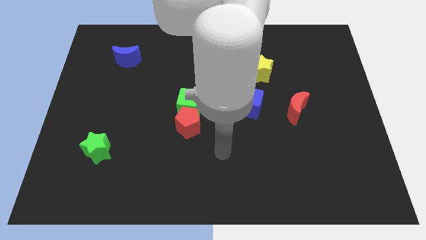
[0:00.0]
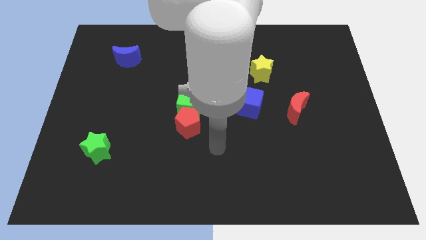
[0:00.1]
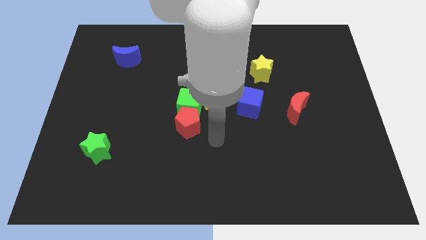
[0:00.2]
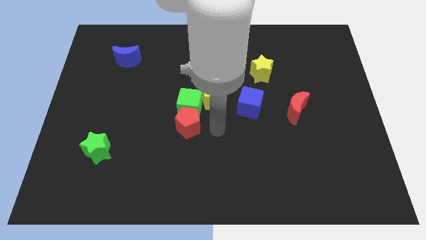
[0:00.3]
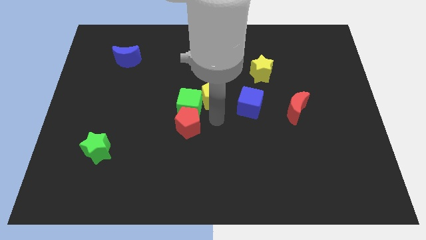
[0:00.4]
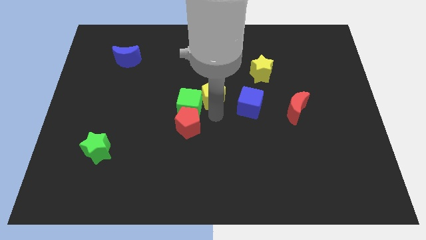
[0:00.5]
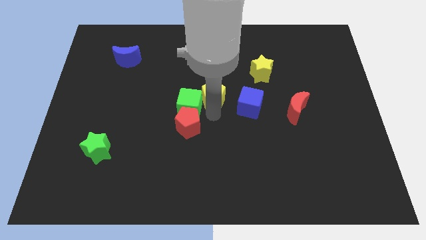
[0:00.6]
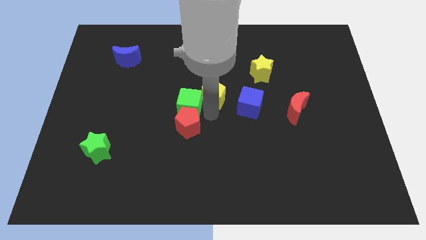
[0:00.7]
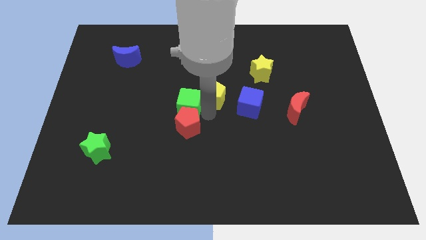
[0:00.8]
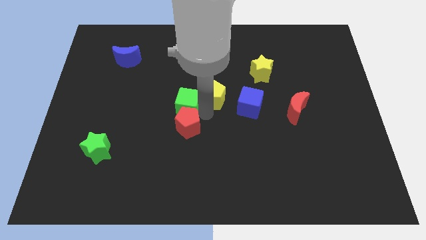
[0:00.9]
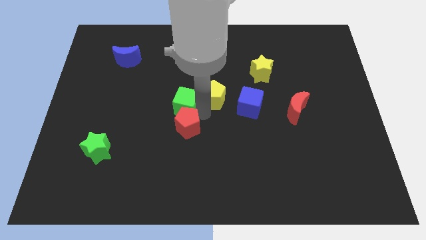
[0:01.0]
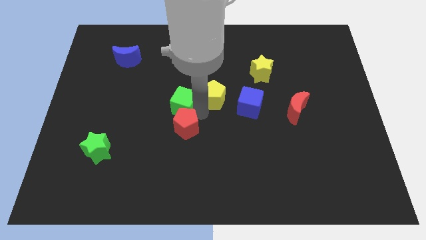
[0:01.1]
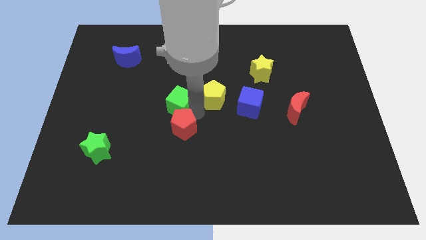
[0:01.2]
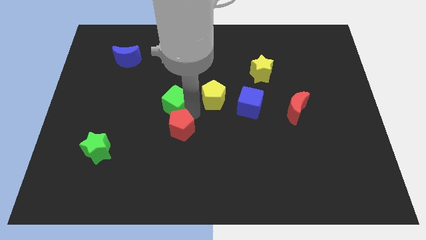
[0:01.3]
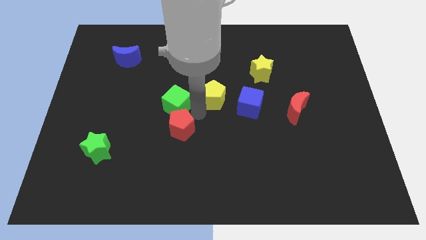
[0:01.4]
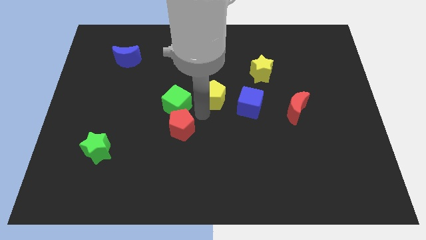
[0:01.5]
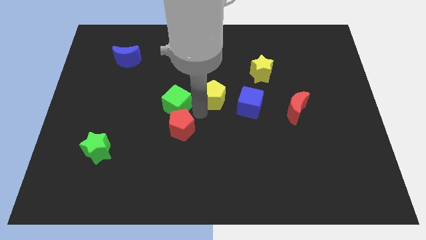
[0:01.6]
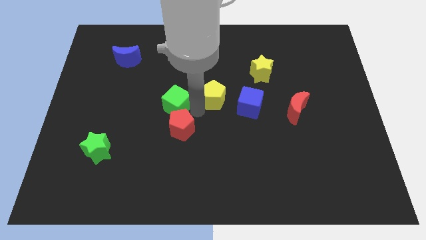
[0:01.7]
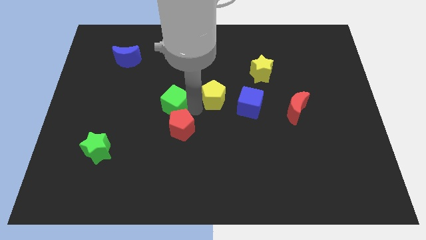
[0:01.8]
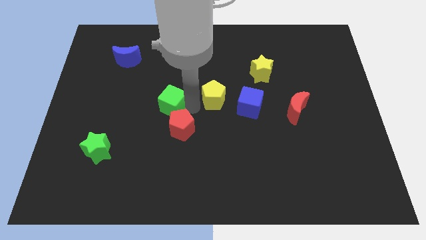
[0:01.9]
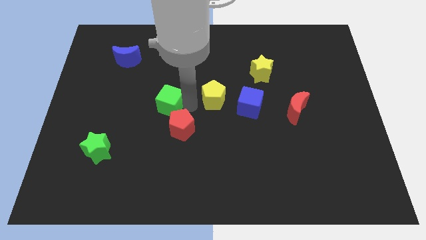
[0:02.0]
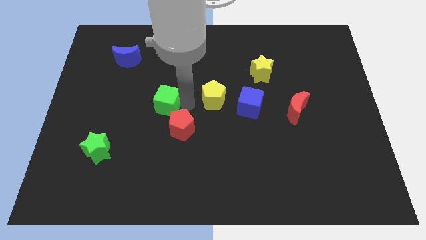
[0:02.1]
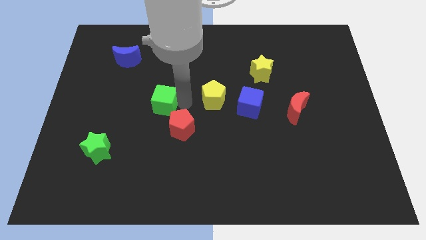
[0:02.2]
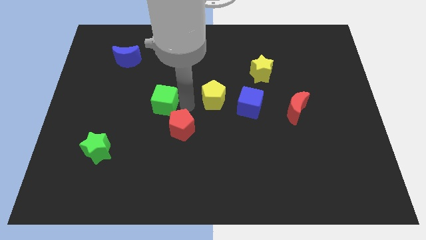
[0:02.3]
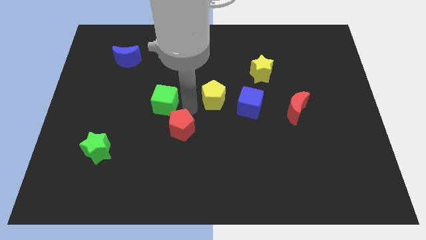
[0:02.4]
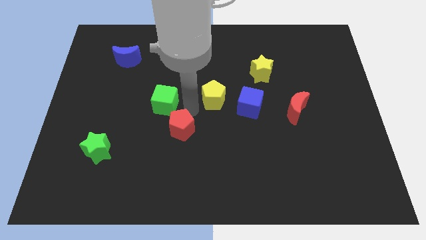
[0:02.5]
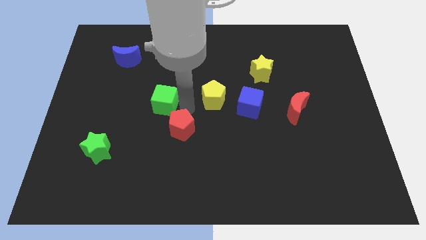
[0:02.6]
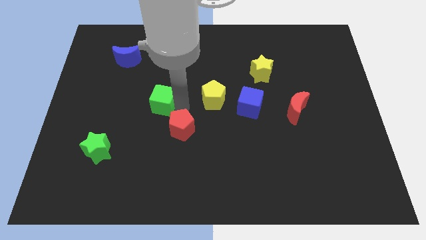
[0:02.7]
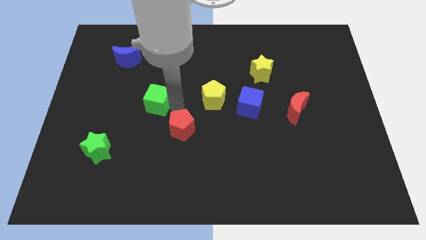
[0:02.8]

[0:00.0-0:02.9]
pull the green cube apart from the red pentagon and yellow pentagon

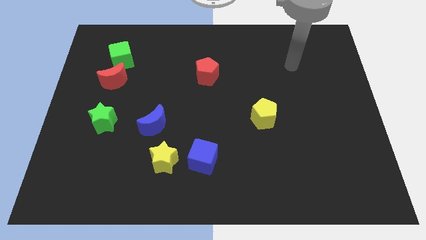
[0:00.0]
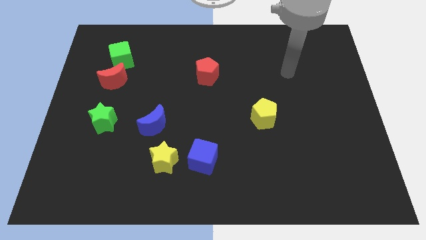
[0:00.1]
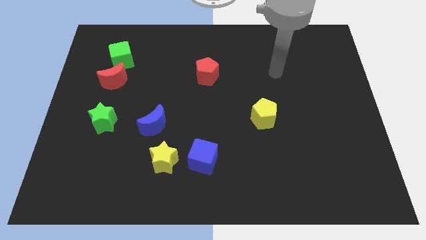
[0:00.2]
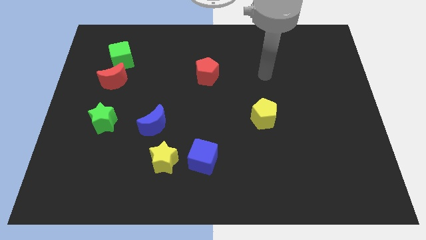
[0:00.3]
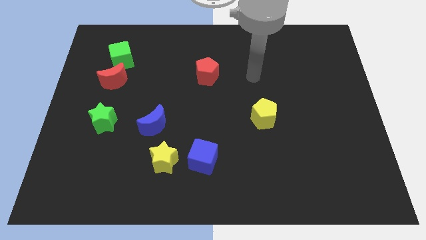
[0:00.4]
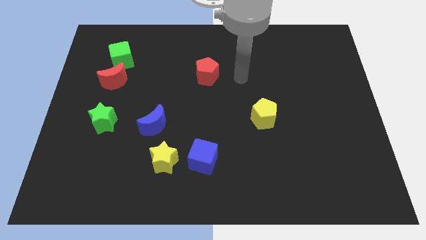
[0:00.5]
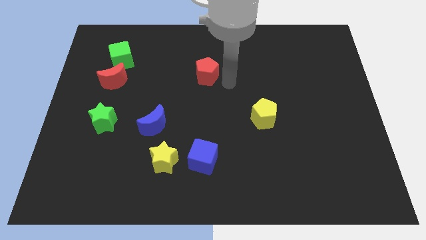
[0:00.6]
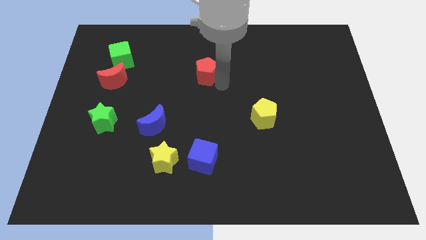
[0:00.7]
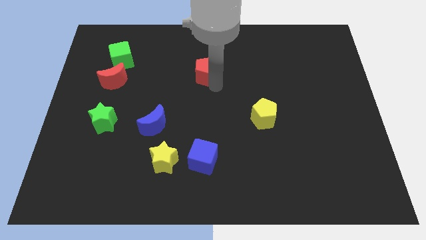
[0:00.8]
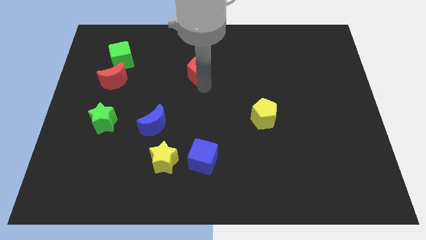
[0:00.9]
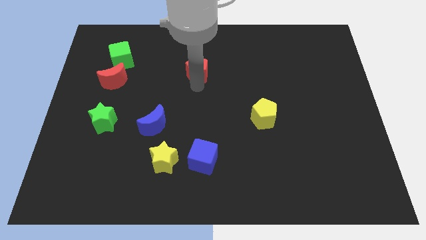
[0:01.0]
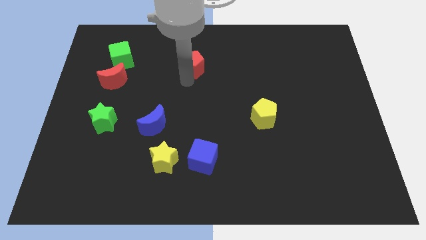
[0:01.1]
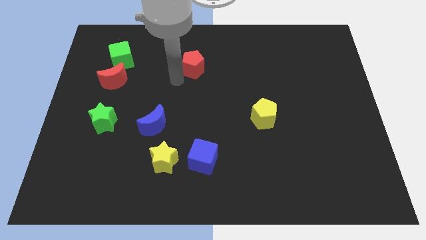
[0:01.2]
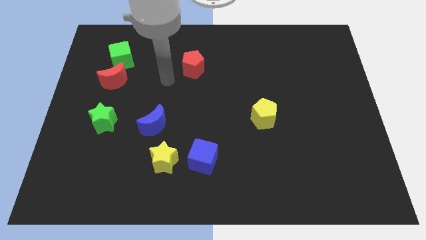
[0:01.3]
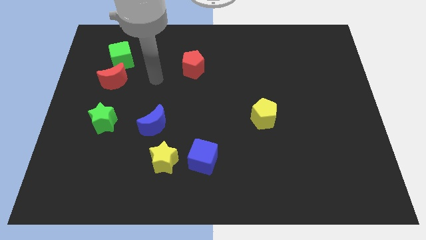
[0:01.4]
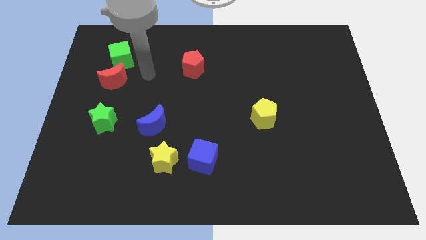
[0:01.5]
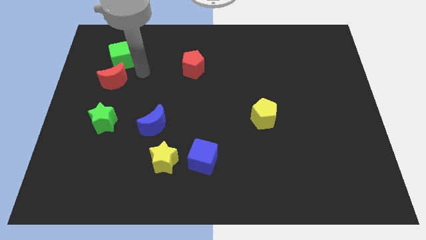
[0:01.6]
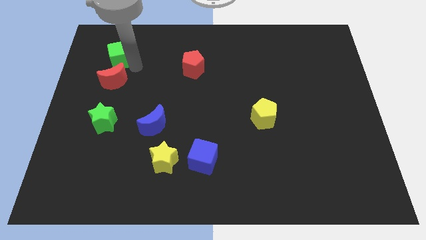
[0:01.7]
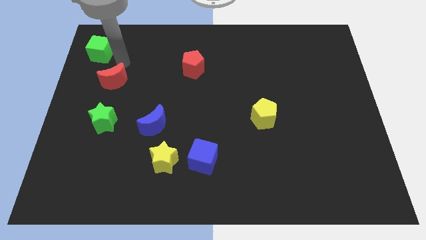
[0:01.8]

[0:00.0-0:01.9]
move the red moon away from the green cube

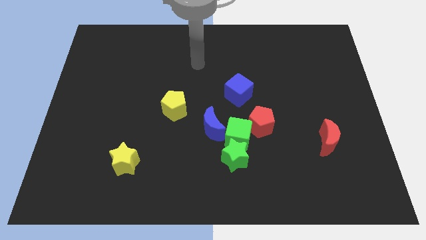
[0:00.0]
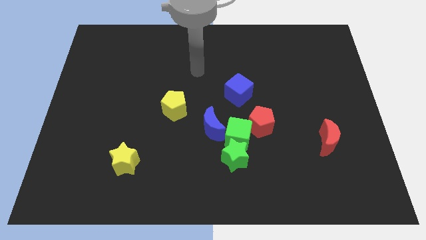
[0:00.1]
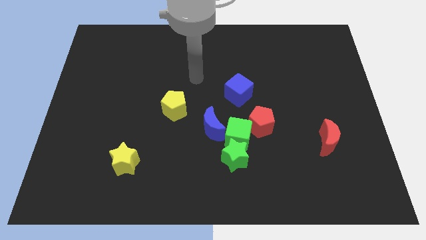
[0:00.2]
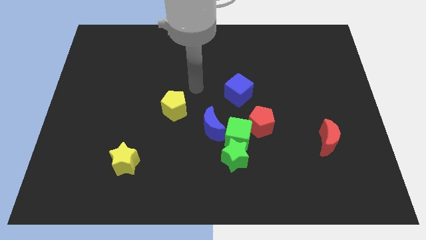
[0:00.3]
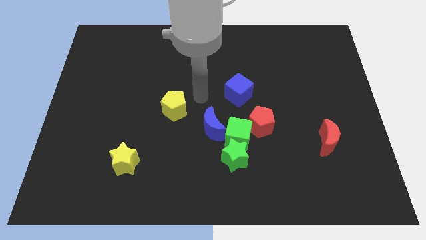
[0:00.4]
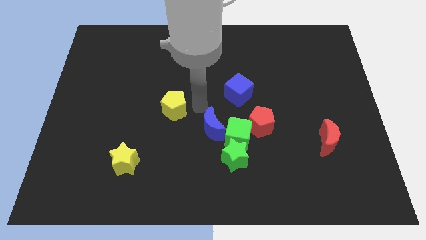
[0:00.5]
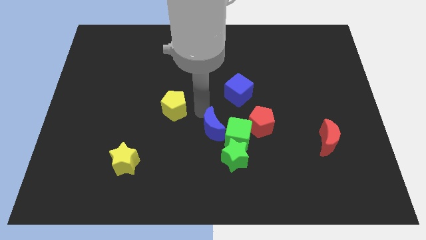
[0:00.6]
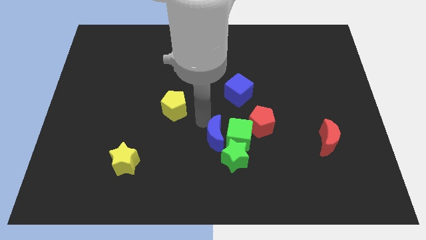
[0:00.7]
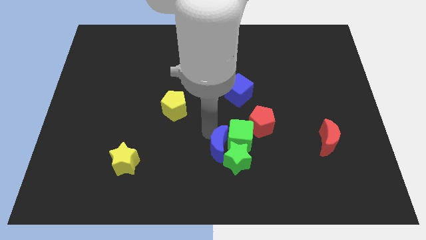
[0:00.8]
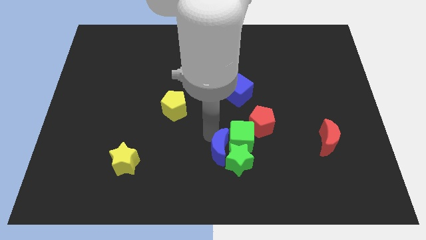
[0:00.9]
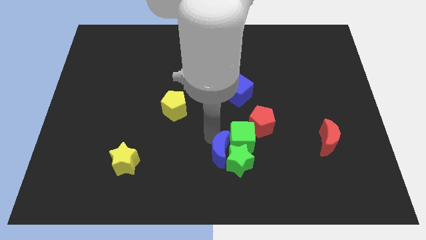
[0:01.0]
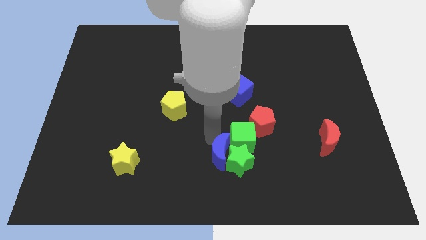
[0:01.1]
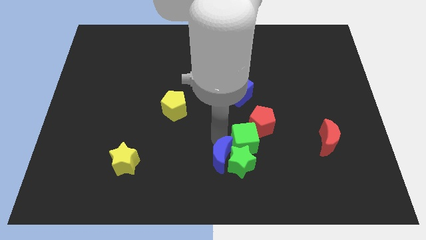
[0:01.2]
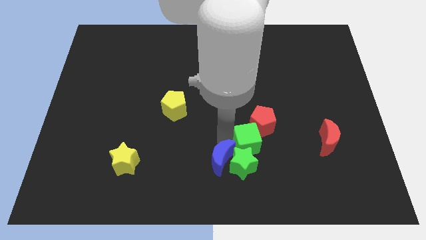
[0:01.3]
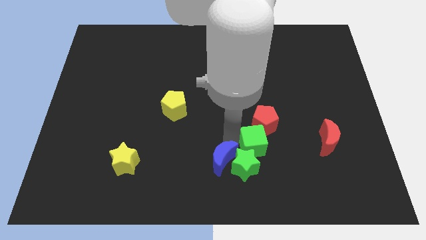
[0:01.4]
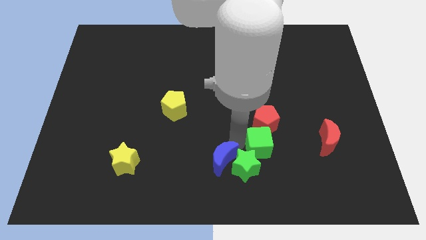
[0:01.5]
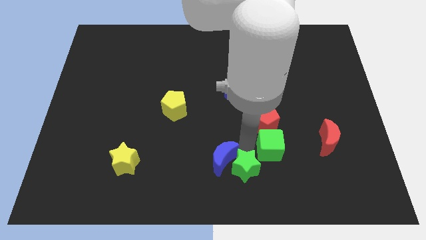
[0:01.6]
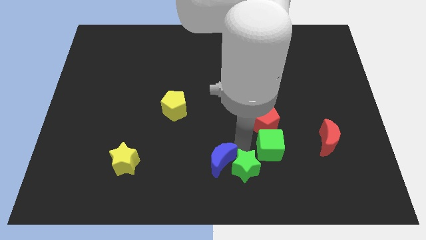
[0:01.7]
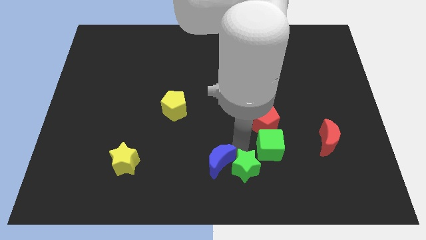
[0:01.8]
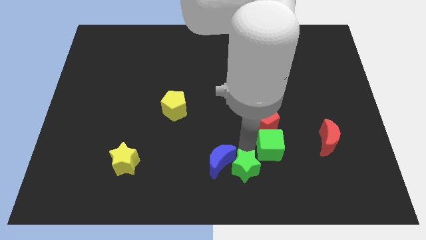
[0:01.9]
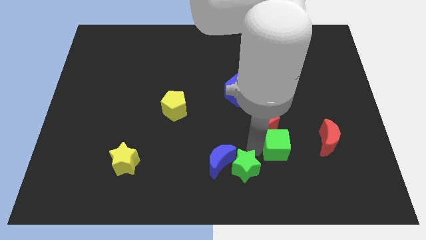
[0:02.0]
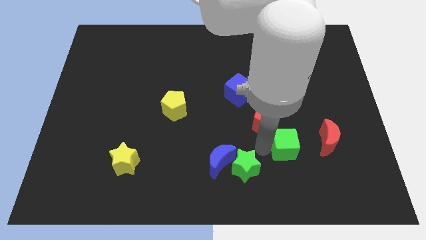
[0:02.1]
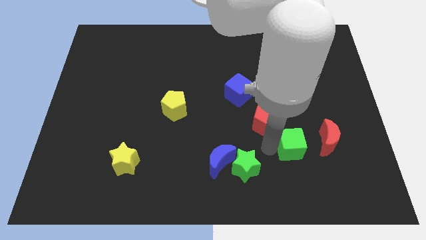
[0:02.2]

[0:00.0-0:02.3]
pull the green cube apart from the group

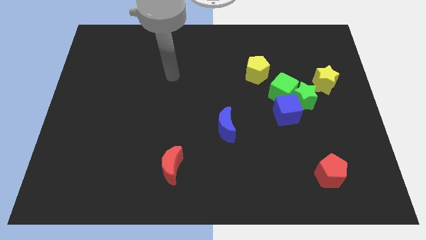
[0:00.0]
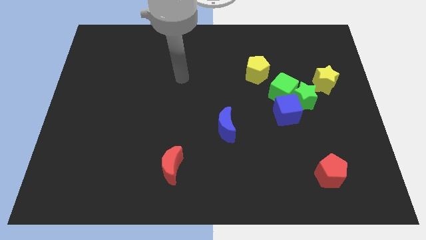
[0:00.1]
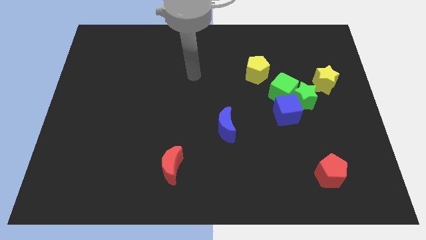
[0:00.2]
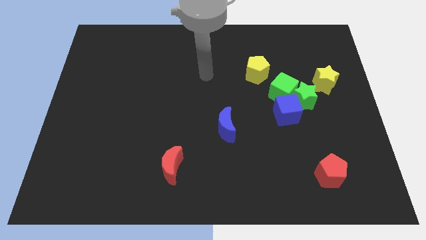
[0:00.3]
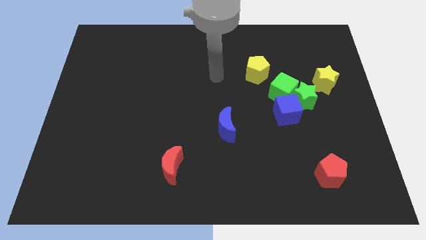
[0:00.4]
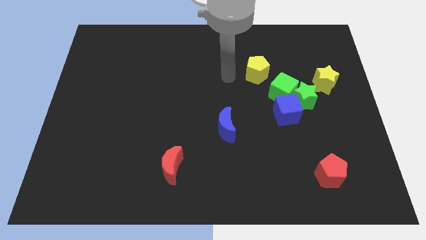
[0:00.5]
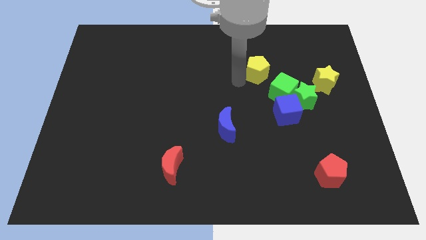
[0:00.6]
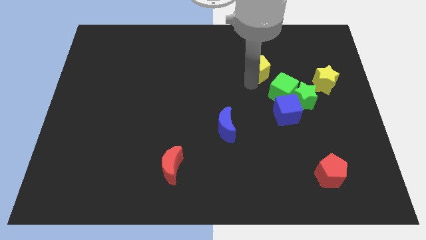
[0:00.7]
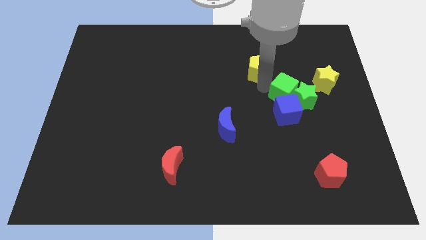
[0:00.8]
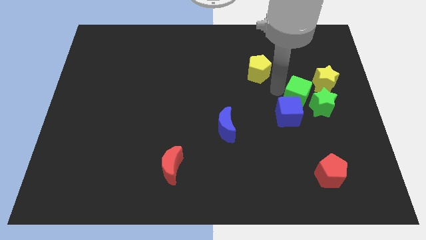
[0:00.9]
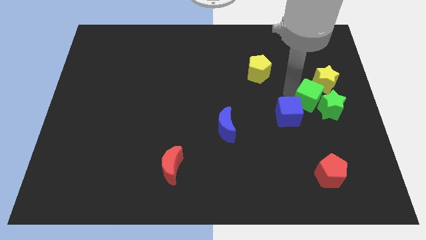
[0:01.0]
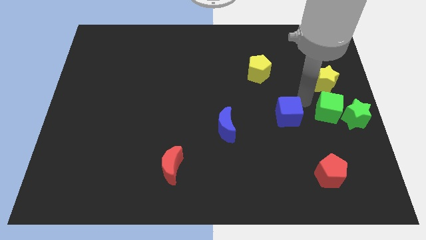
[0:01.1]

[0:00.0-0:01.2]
pull the blue cube apart from the green star and green cube

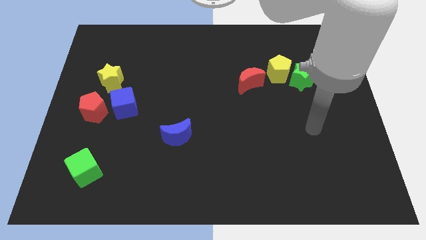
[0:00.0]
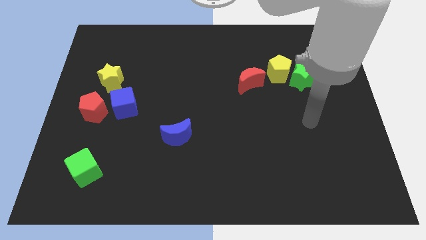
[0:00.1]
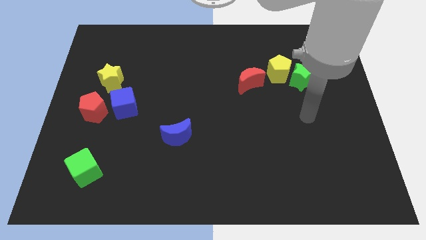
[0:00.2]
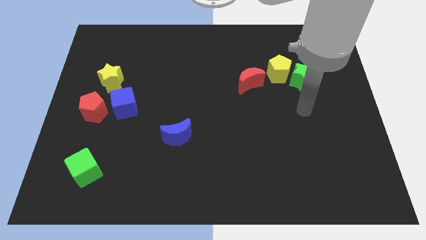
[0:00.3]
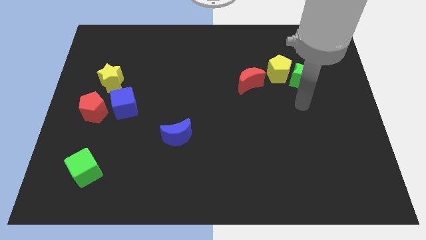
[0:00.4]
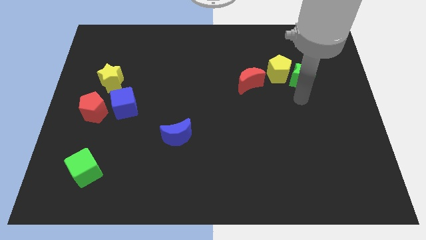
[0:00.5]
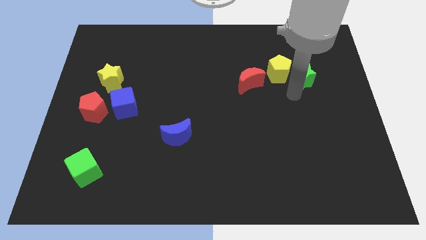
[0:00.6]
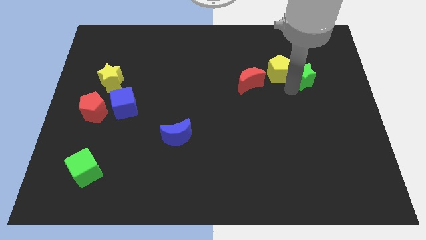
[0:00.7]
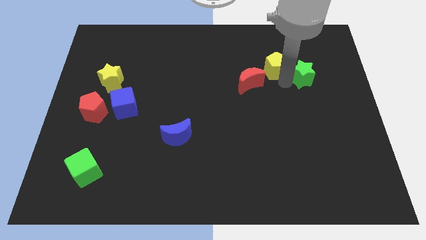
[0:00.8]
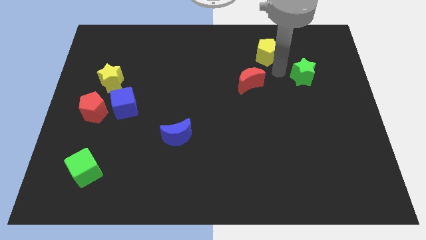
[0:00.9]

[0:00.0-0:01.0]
pull the green star apart from the yellow pentagon
